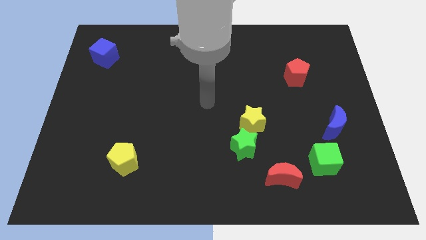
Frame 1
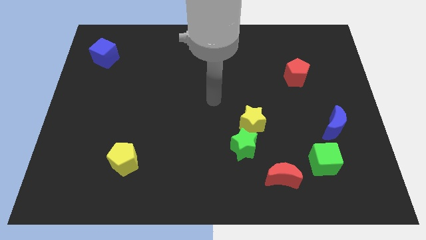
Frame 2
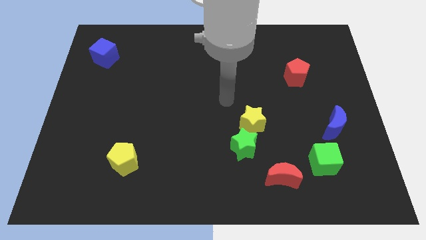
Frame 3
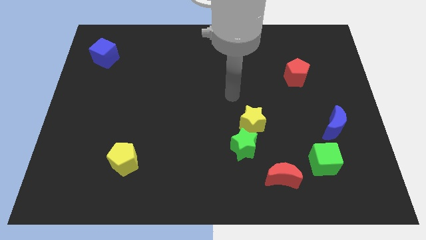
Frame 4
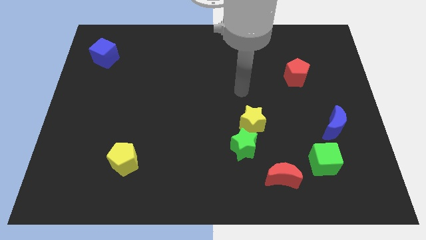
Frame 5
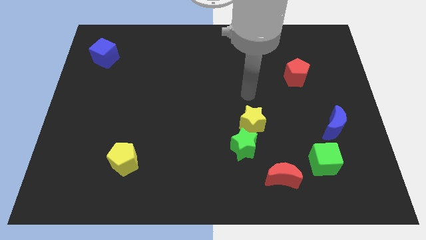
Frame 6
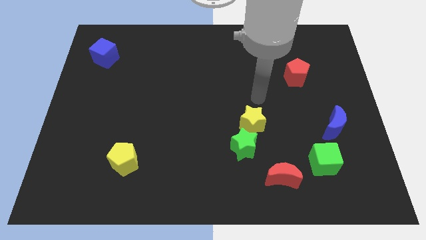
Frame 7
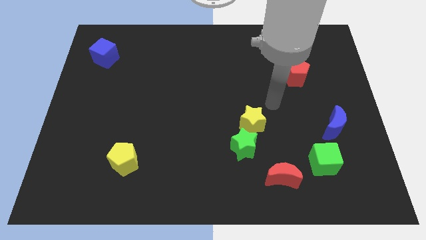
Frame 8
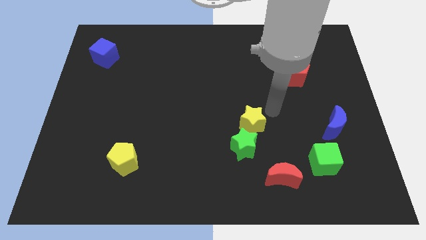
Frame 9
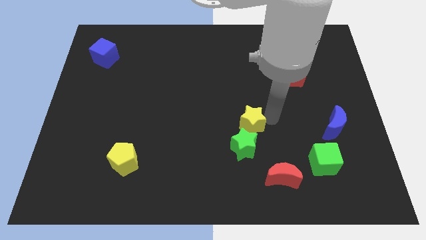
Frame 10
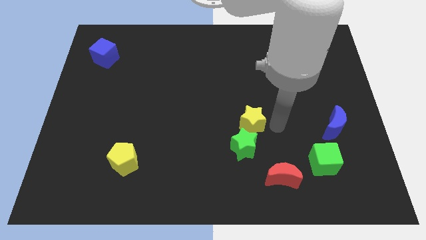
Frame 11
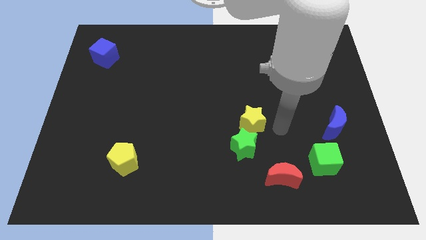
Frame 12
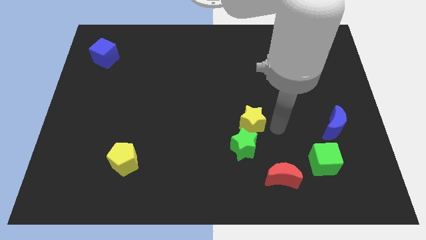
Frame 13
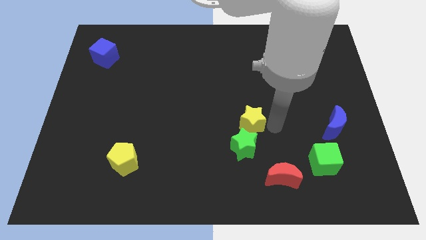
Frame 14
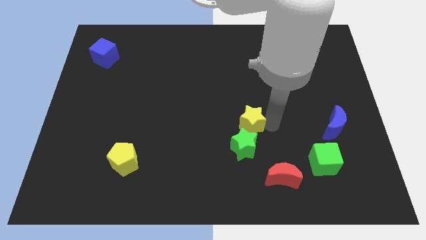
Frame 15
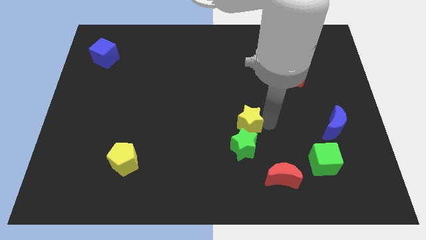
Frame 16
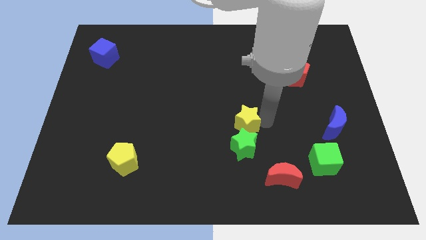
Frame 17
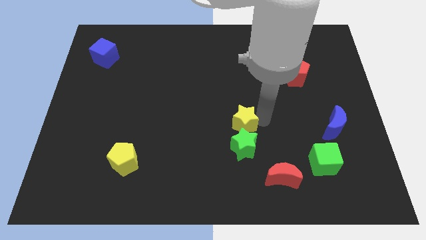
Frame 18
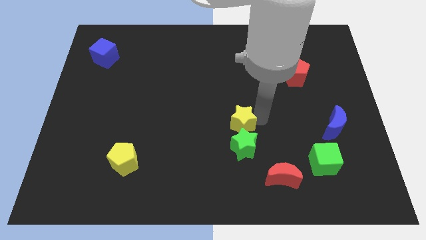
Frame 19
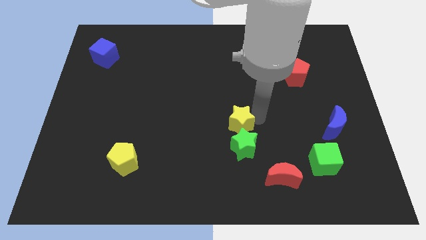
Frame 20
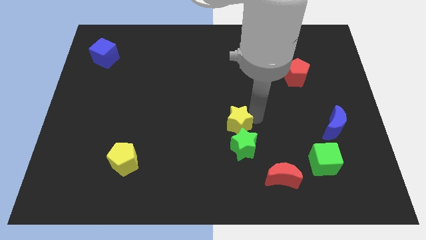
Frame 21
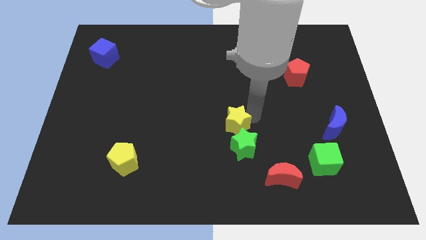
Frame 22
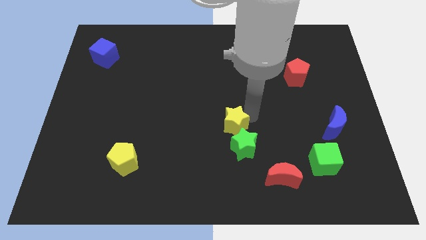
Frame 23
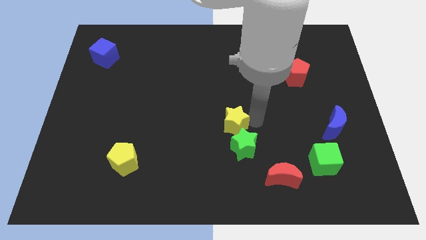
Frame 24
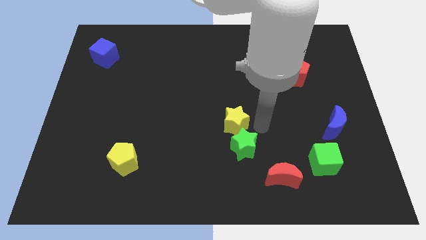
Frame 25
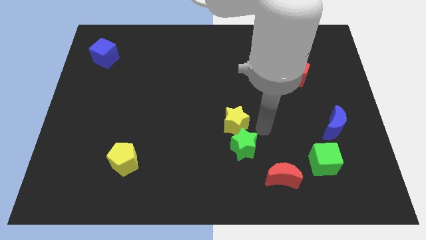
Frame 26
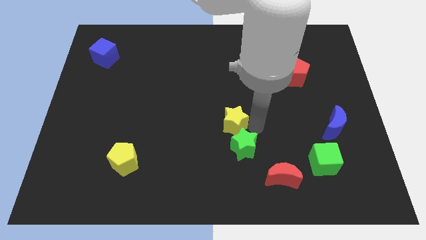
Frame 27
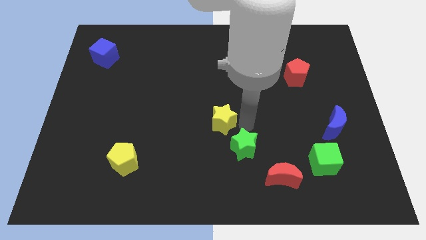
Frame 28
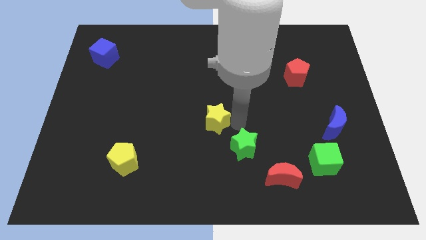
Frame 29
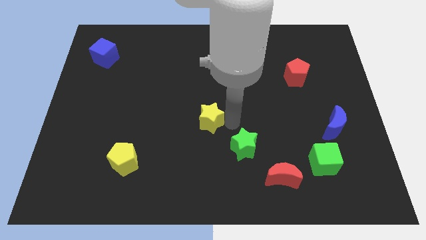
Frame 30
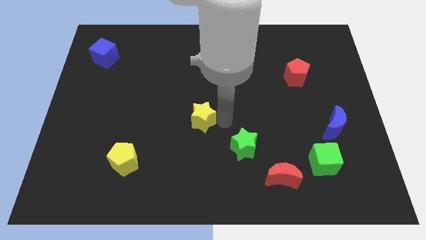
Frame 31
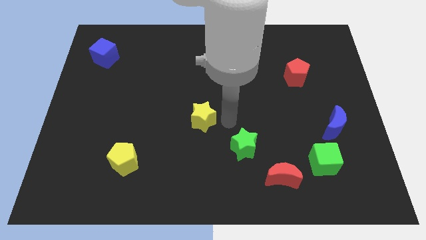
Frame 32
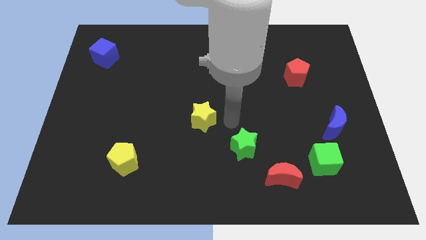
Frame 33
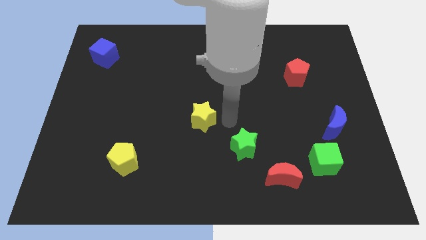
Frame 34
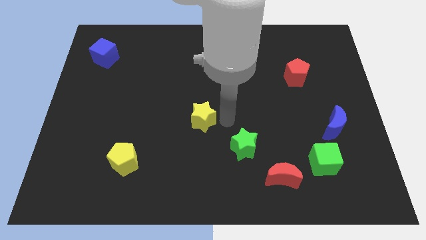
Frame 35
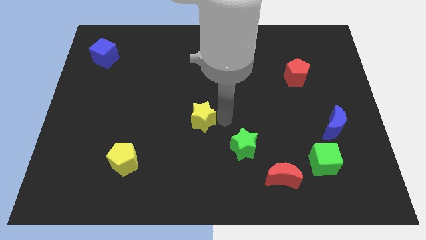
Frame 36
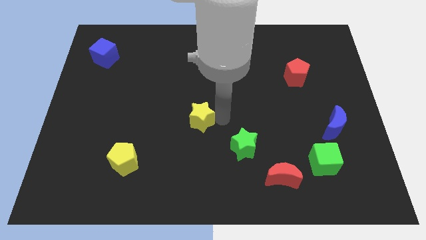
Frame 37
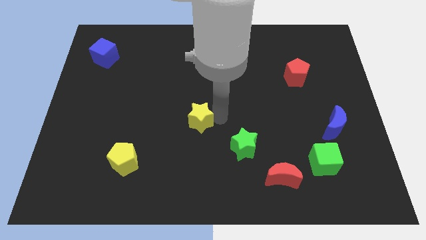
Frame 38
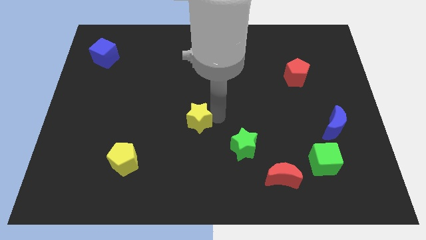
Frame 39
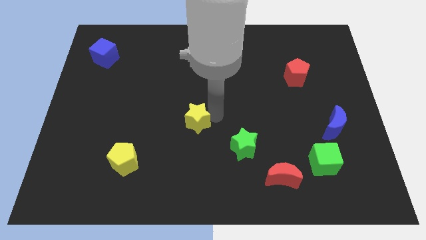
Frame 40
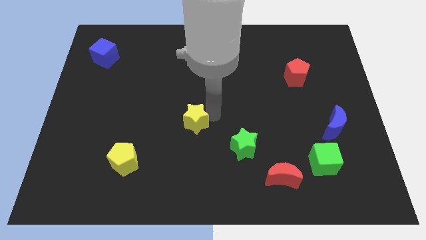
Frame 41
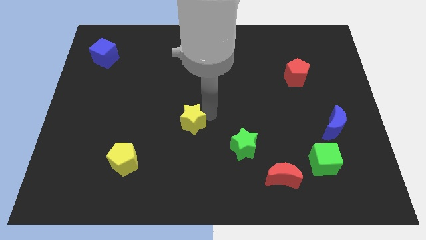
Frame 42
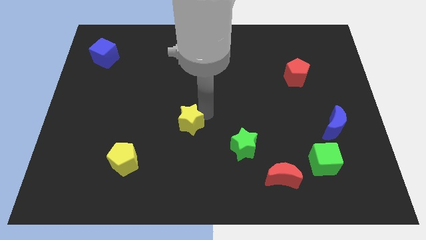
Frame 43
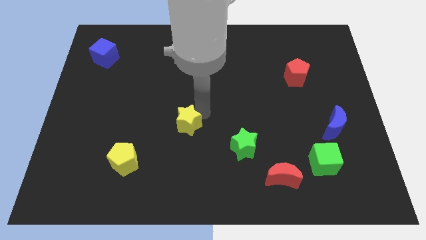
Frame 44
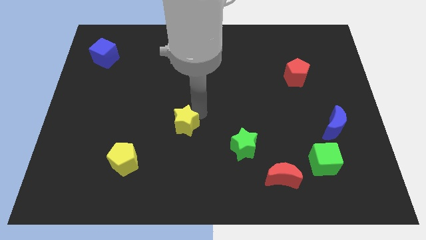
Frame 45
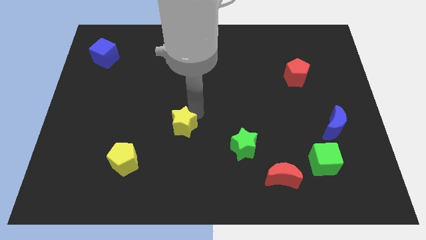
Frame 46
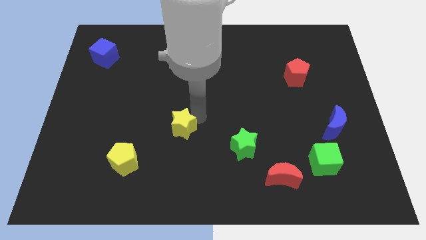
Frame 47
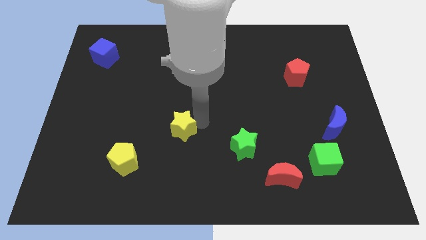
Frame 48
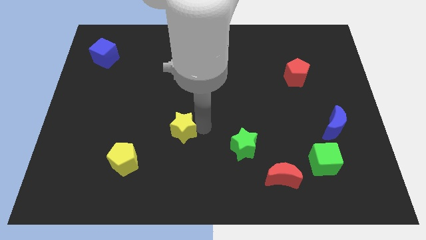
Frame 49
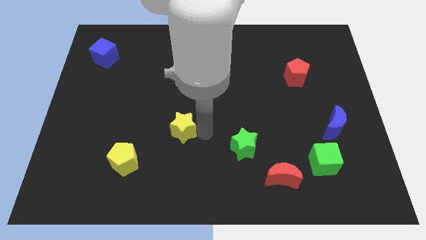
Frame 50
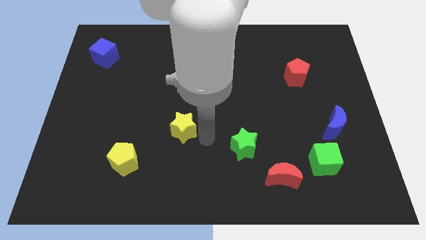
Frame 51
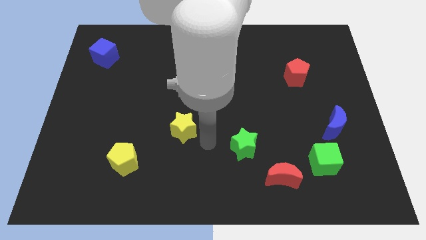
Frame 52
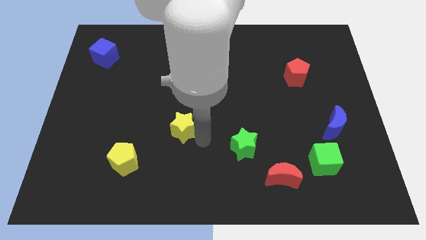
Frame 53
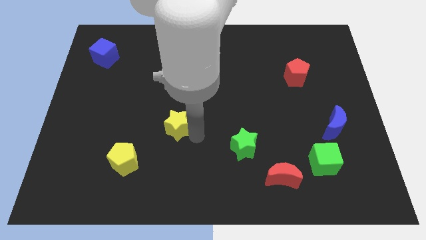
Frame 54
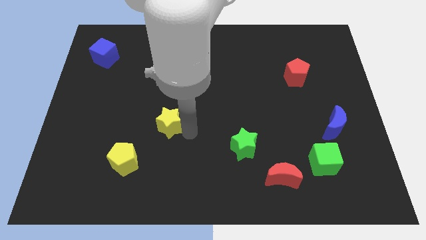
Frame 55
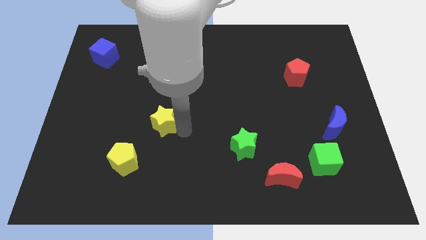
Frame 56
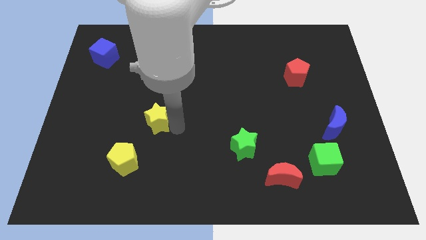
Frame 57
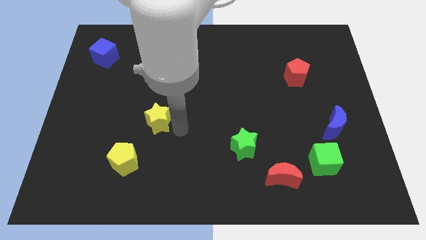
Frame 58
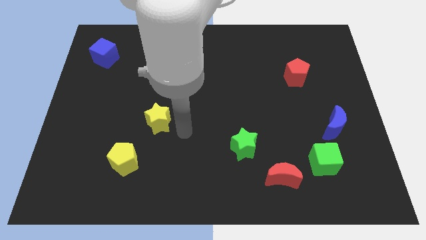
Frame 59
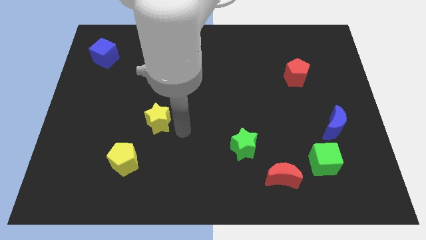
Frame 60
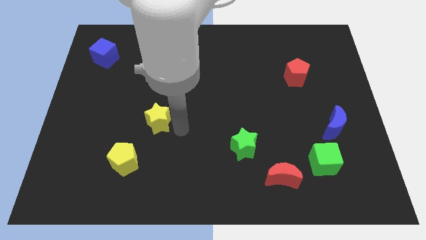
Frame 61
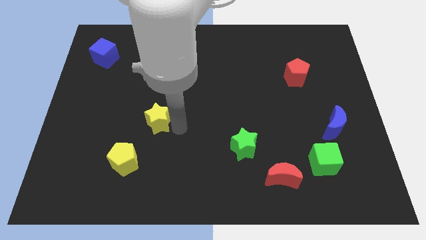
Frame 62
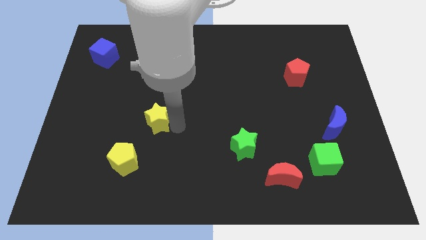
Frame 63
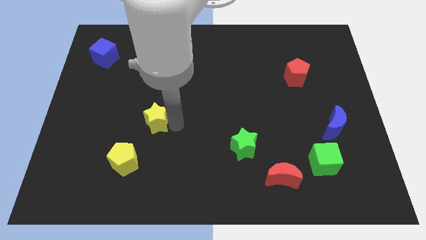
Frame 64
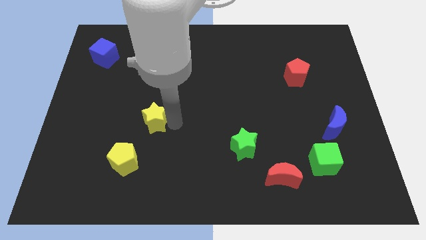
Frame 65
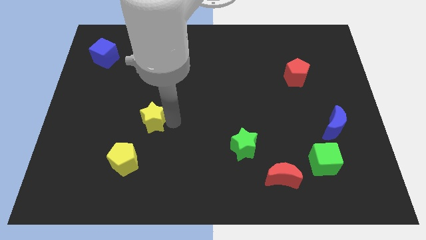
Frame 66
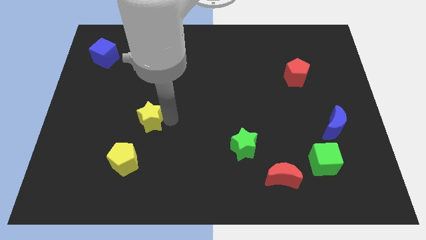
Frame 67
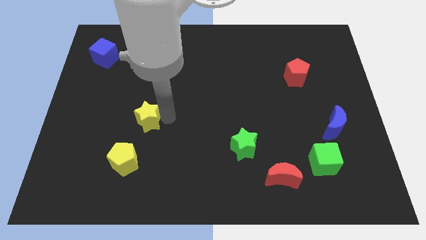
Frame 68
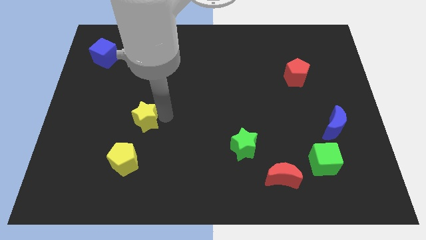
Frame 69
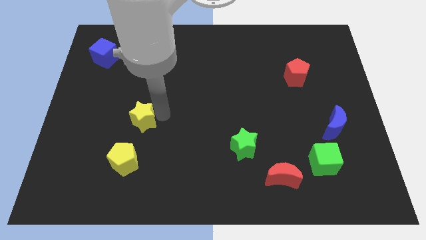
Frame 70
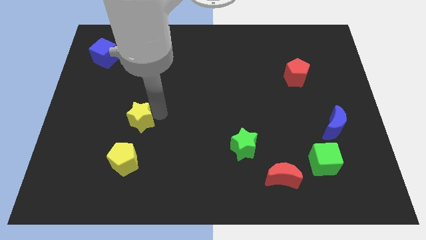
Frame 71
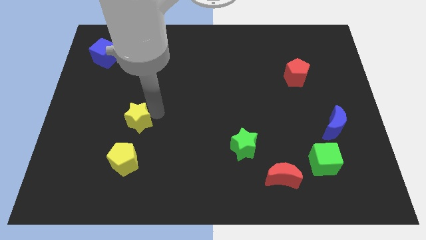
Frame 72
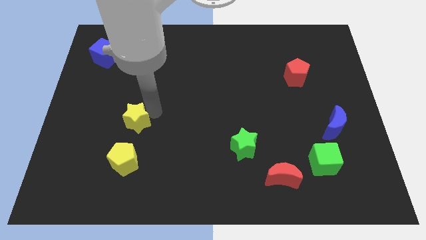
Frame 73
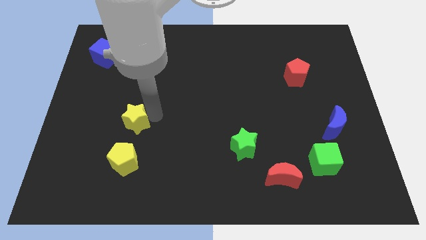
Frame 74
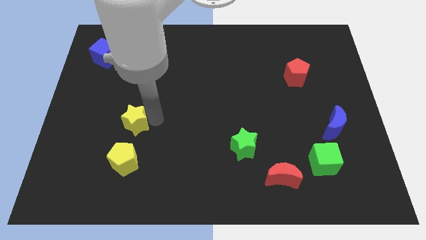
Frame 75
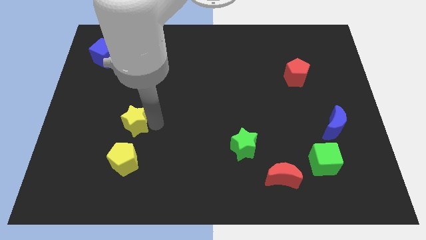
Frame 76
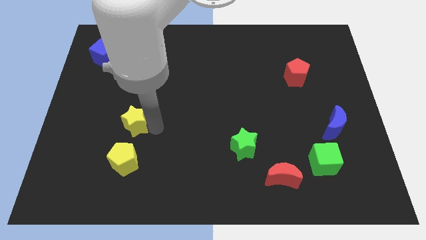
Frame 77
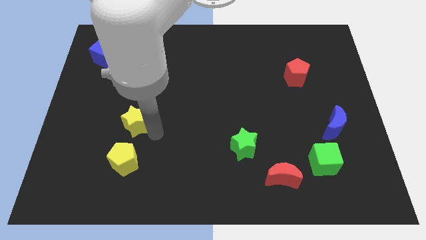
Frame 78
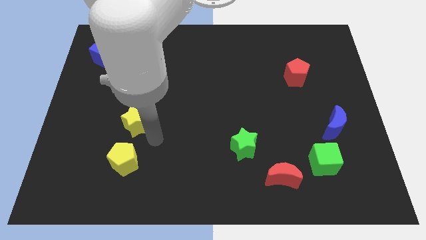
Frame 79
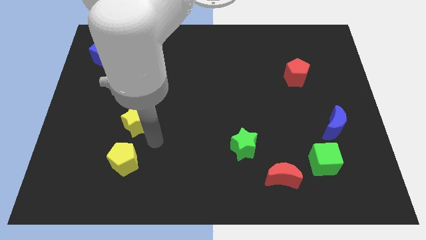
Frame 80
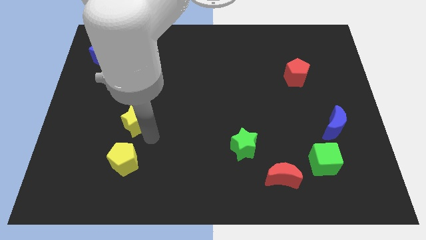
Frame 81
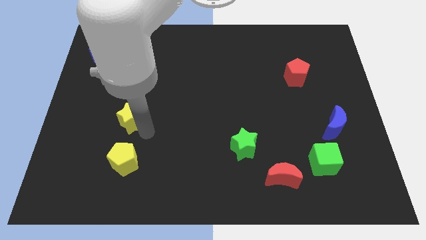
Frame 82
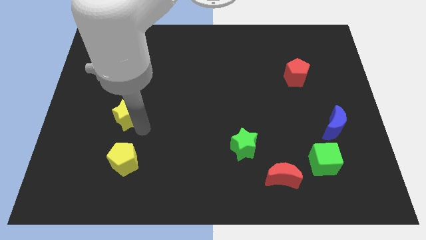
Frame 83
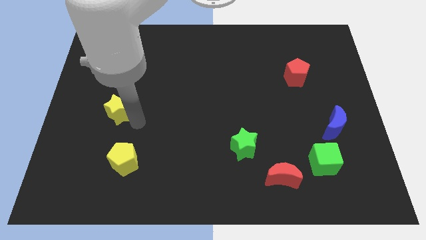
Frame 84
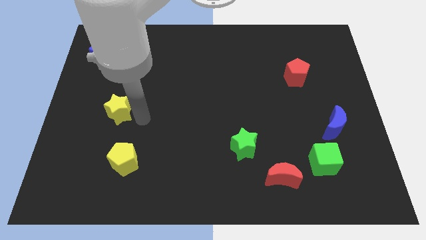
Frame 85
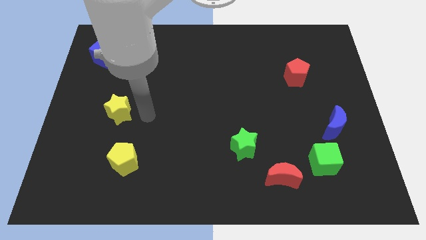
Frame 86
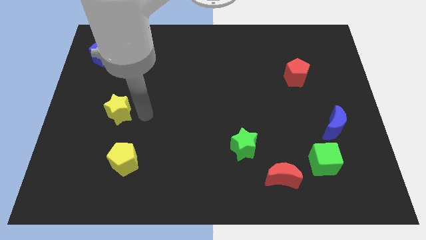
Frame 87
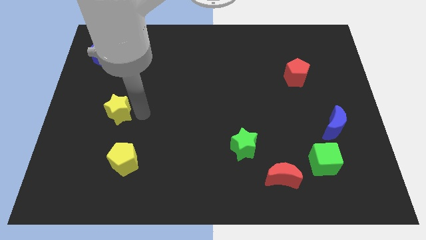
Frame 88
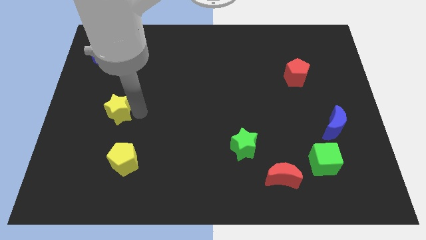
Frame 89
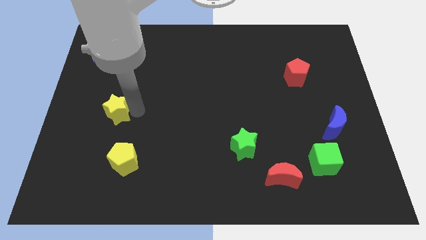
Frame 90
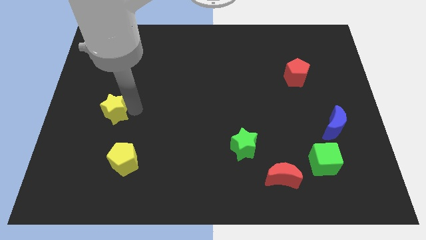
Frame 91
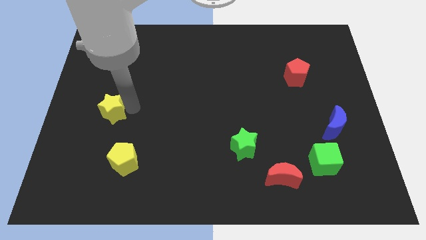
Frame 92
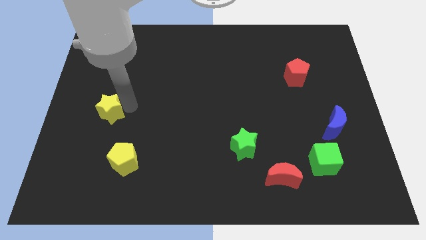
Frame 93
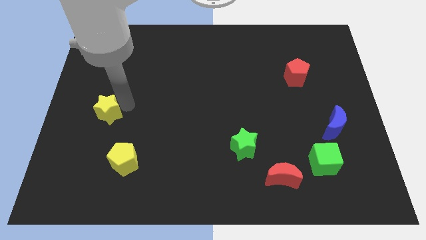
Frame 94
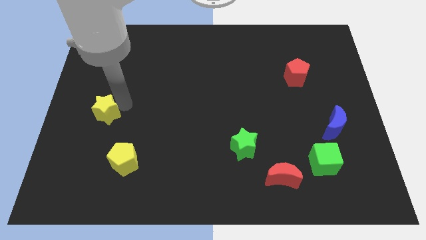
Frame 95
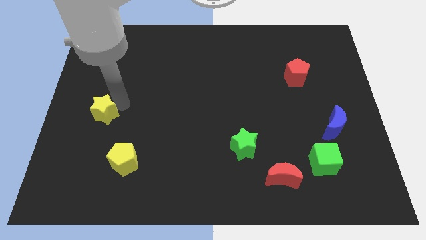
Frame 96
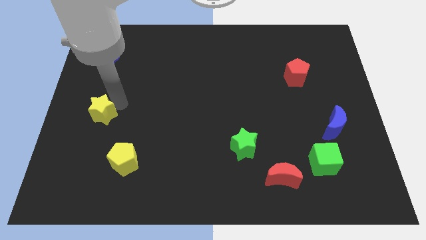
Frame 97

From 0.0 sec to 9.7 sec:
slide the yellow star to the left side of the board
